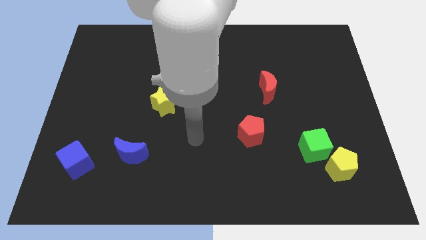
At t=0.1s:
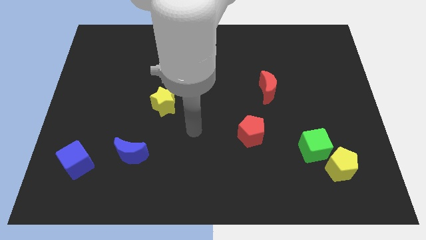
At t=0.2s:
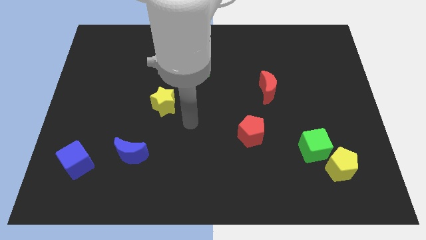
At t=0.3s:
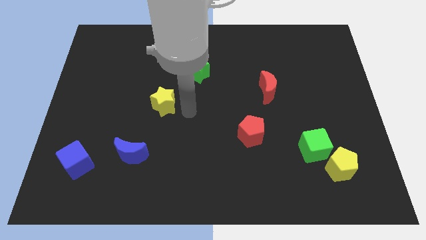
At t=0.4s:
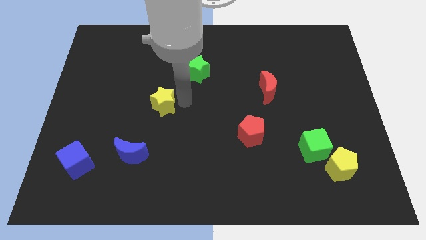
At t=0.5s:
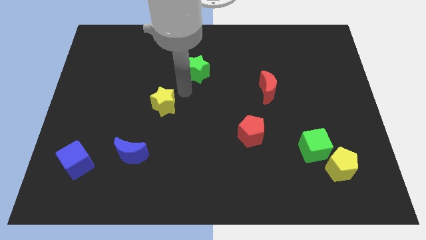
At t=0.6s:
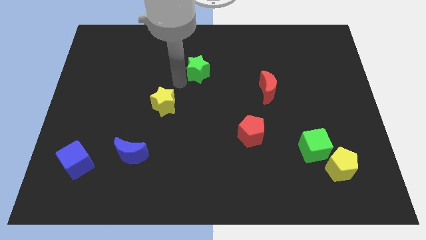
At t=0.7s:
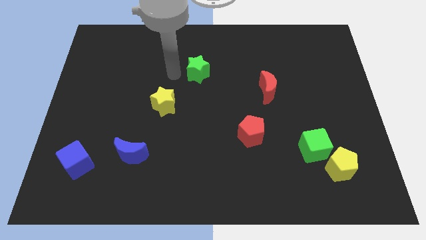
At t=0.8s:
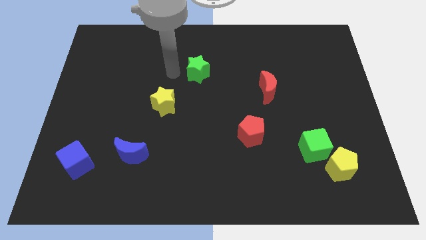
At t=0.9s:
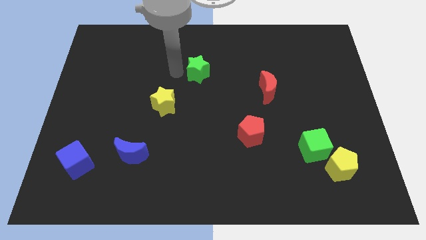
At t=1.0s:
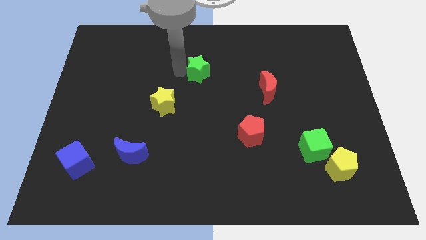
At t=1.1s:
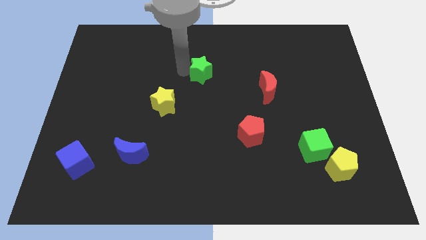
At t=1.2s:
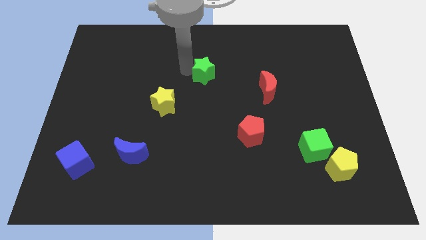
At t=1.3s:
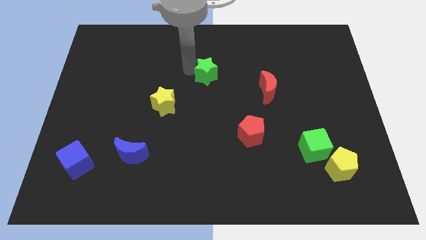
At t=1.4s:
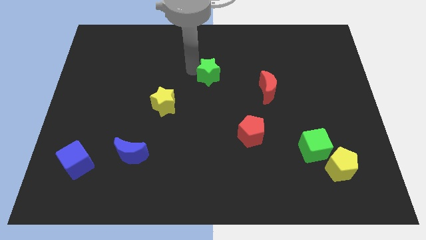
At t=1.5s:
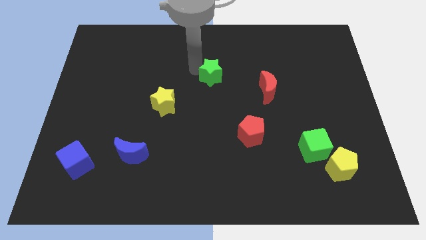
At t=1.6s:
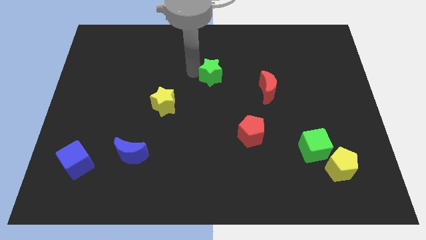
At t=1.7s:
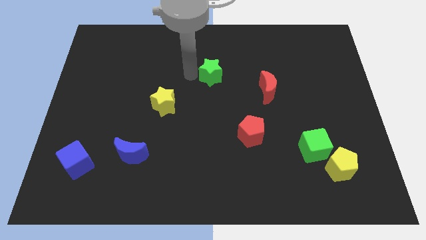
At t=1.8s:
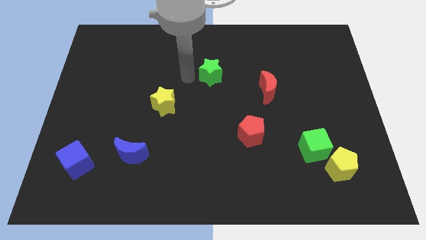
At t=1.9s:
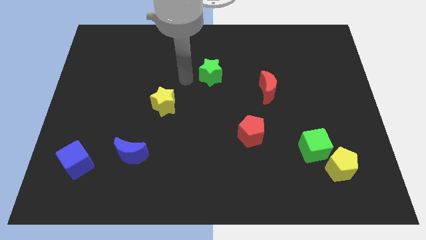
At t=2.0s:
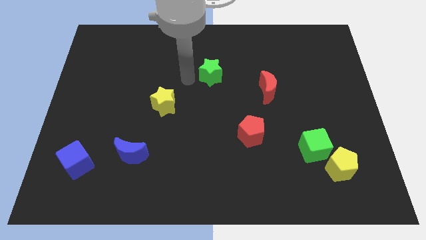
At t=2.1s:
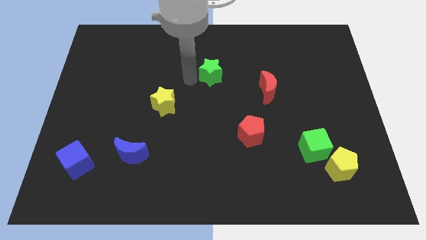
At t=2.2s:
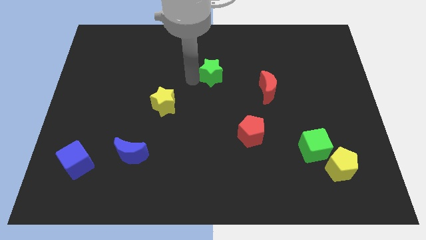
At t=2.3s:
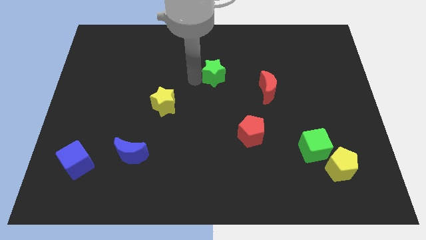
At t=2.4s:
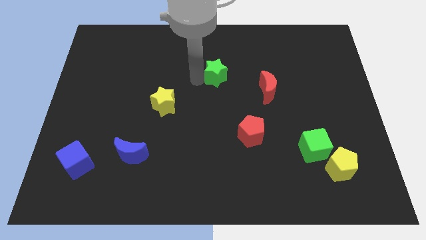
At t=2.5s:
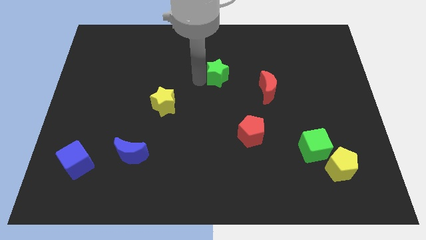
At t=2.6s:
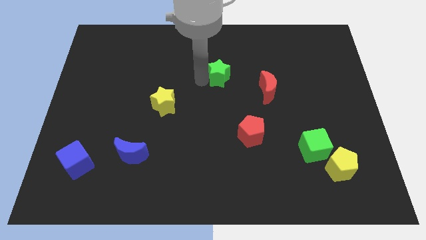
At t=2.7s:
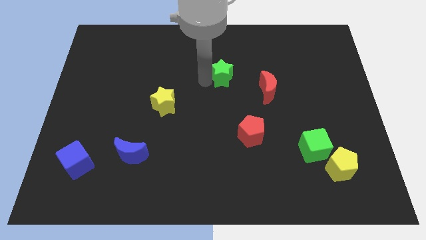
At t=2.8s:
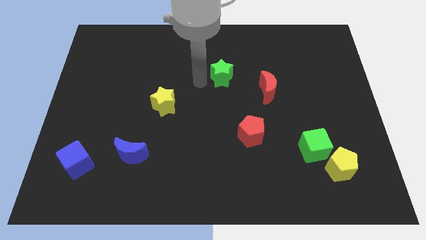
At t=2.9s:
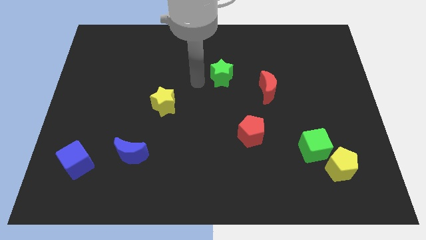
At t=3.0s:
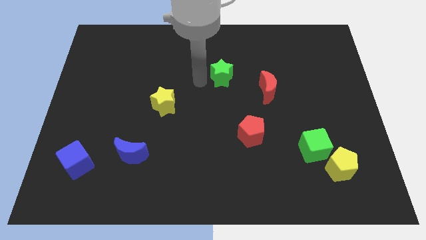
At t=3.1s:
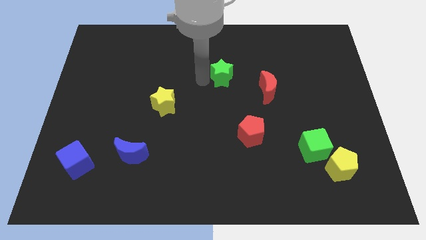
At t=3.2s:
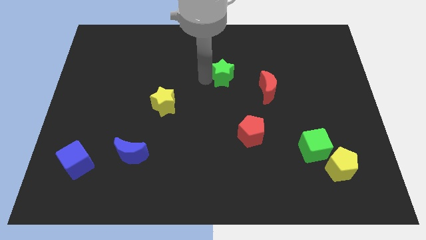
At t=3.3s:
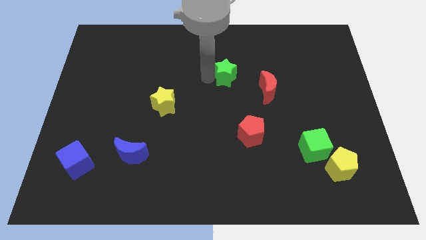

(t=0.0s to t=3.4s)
slightly slide the green star right

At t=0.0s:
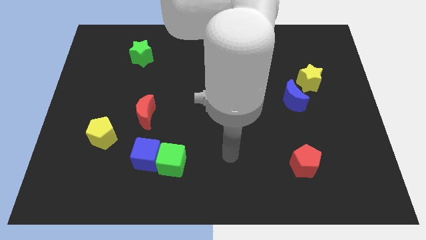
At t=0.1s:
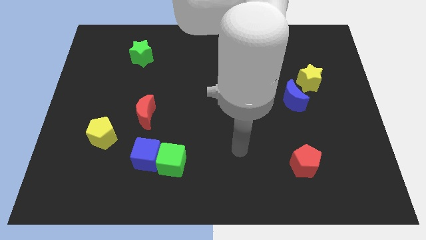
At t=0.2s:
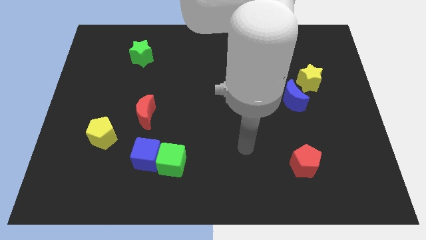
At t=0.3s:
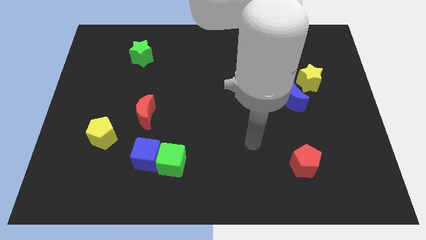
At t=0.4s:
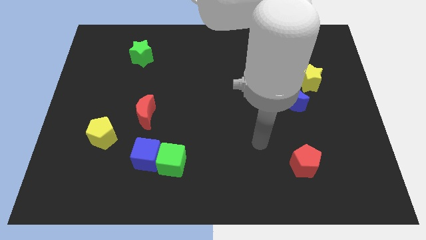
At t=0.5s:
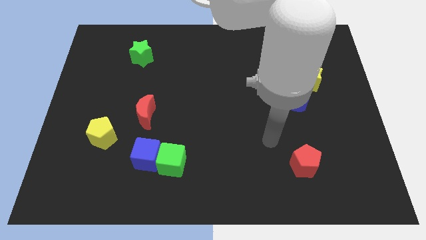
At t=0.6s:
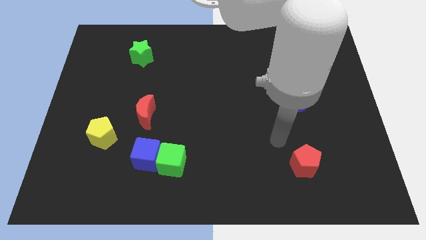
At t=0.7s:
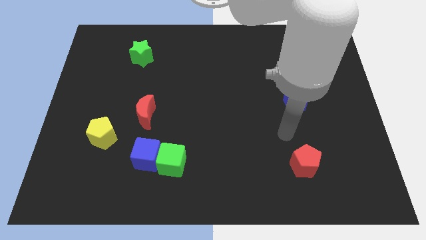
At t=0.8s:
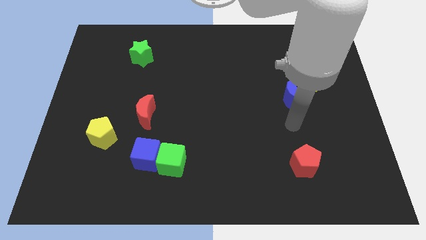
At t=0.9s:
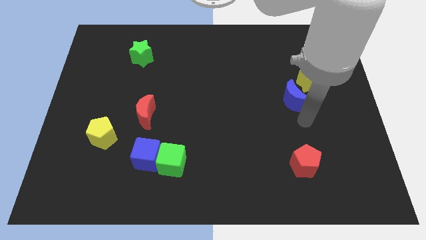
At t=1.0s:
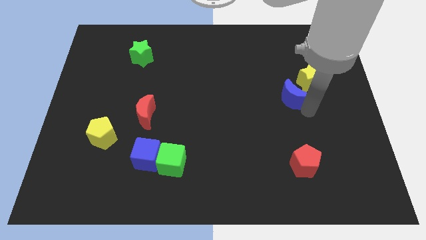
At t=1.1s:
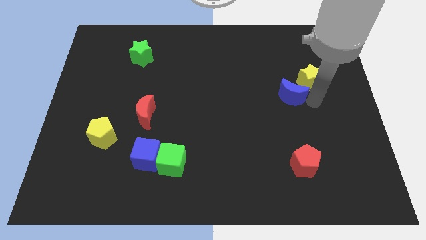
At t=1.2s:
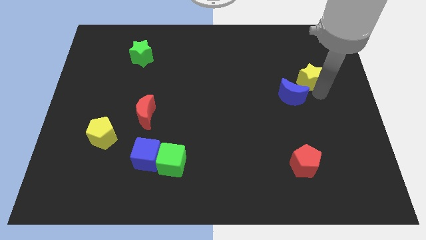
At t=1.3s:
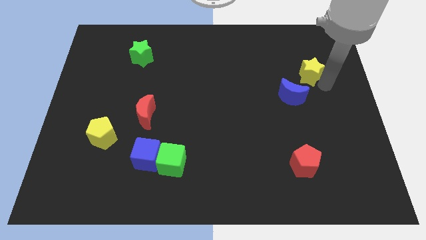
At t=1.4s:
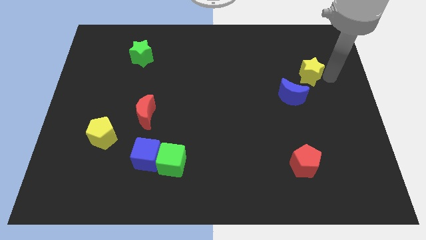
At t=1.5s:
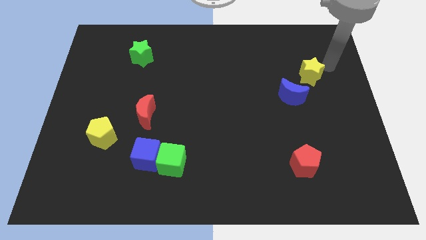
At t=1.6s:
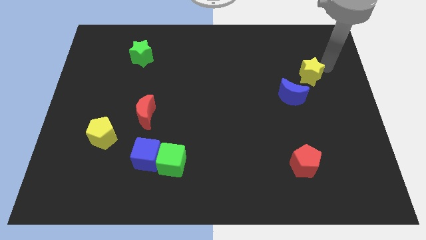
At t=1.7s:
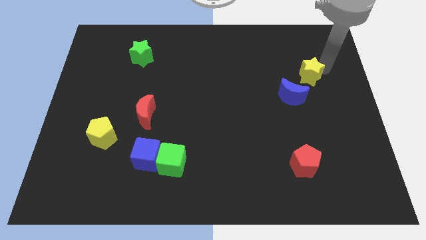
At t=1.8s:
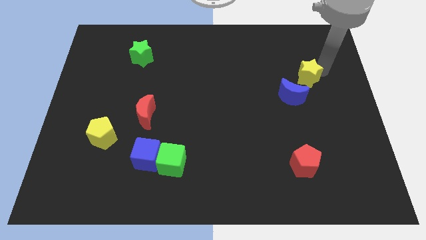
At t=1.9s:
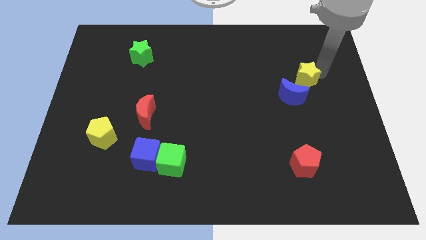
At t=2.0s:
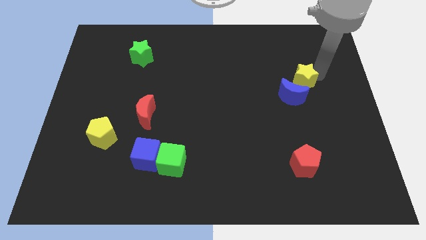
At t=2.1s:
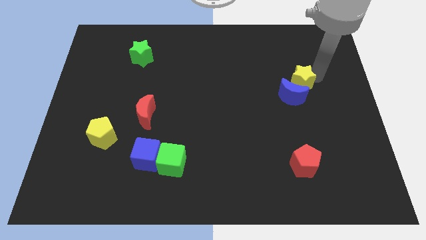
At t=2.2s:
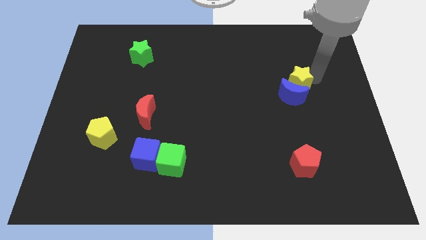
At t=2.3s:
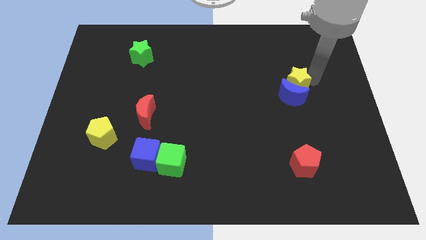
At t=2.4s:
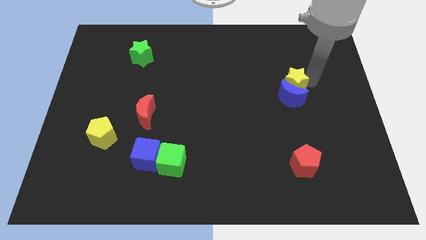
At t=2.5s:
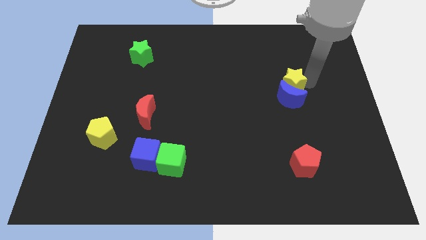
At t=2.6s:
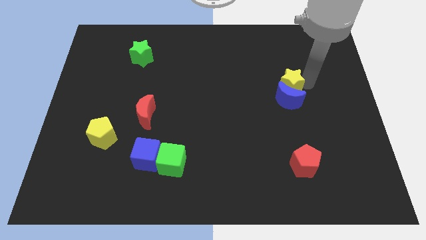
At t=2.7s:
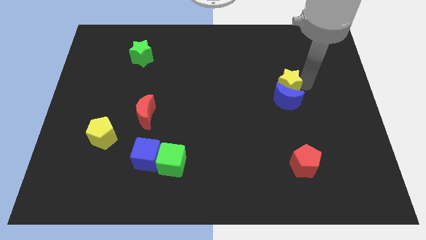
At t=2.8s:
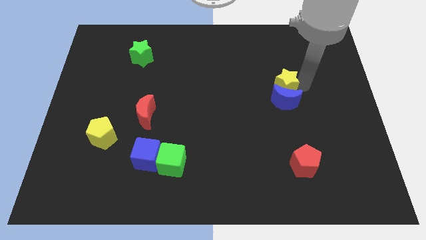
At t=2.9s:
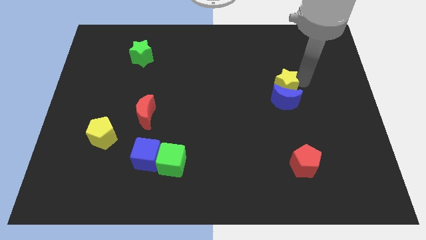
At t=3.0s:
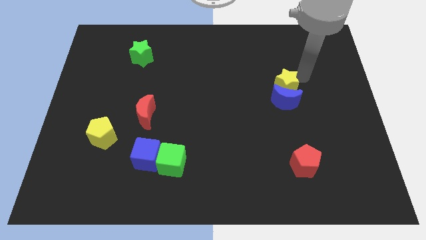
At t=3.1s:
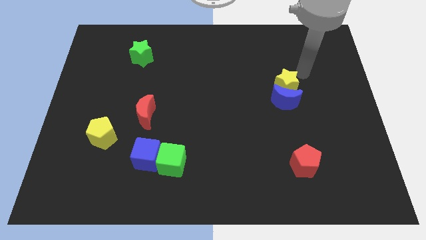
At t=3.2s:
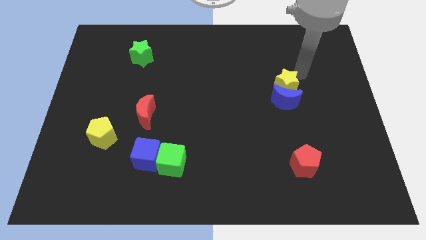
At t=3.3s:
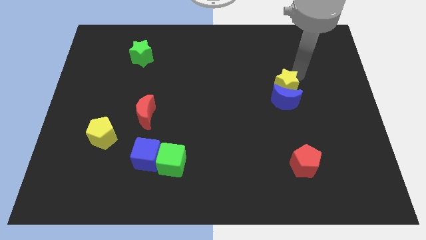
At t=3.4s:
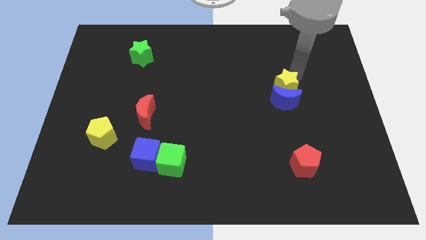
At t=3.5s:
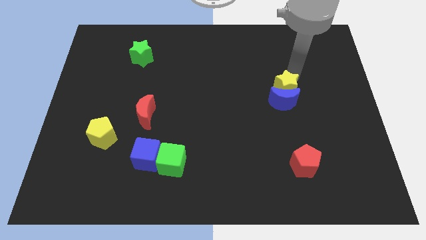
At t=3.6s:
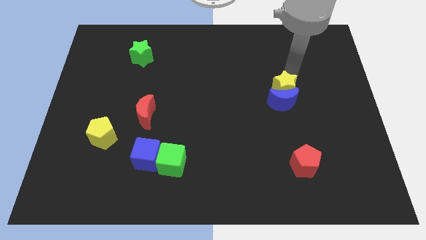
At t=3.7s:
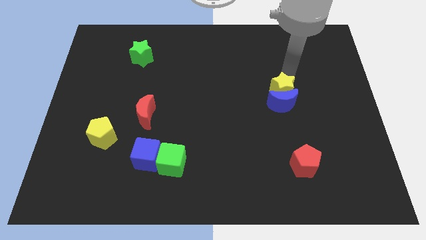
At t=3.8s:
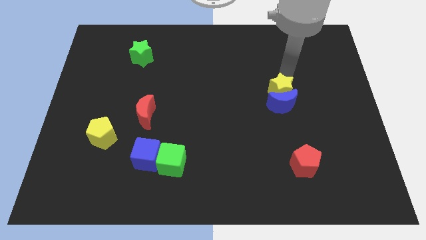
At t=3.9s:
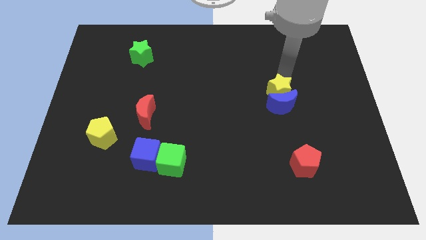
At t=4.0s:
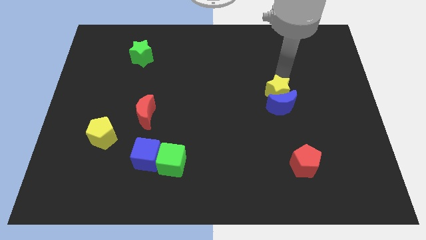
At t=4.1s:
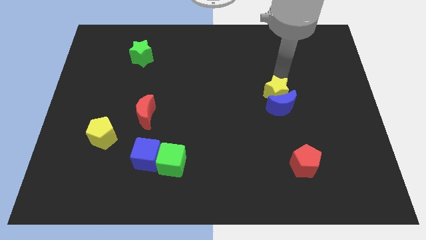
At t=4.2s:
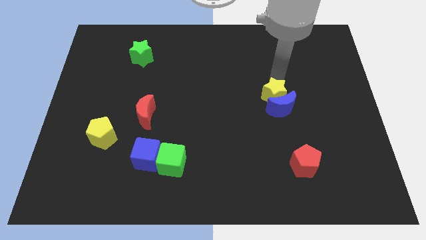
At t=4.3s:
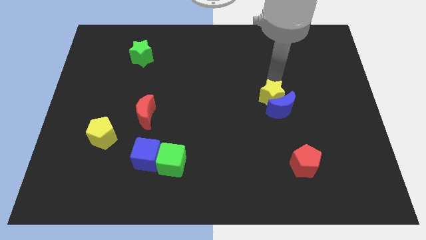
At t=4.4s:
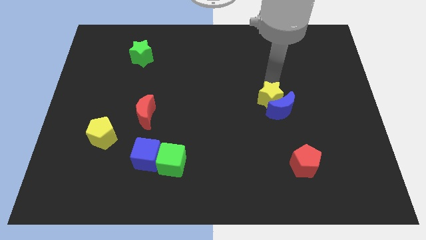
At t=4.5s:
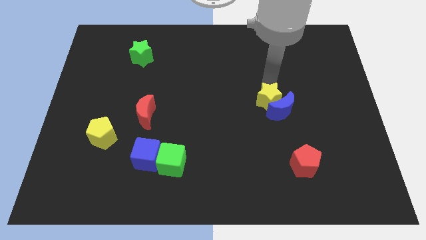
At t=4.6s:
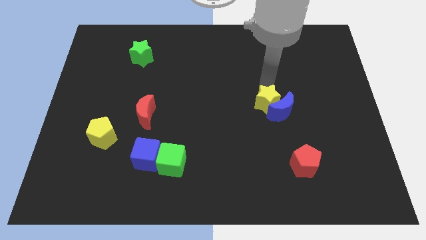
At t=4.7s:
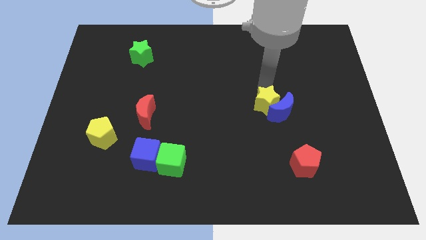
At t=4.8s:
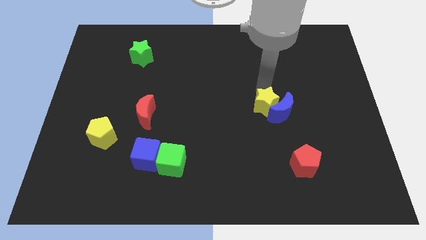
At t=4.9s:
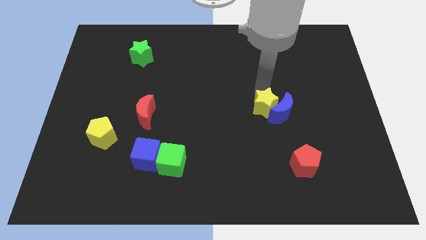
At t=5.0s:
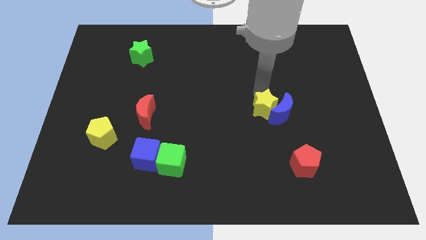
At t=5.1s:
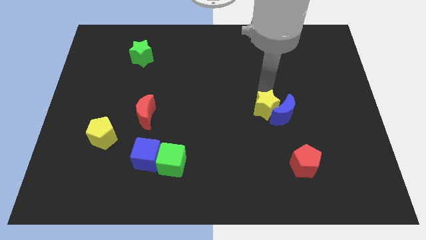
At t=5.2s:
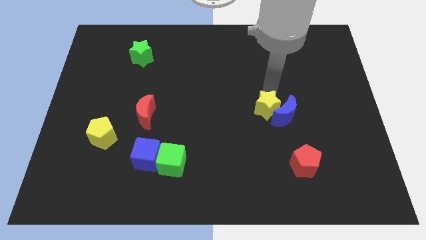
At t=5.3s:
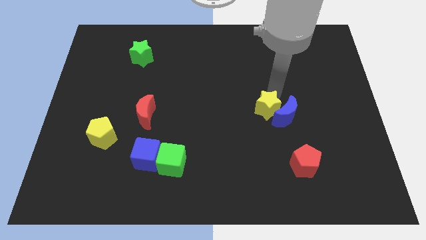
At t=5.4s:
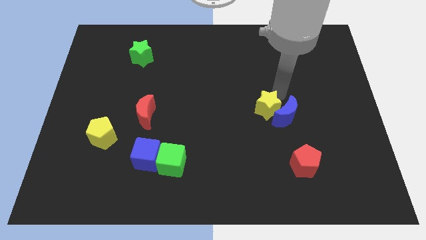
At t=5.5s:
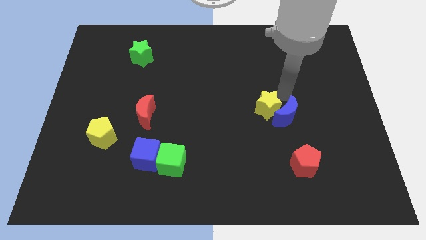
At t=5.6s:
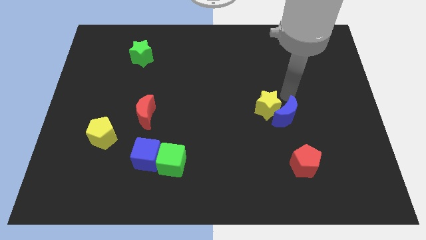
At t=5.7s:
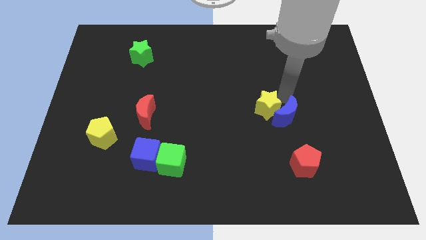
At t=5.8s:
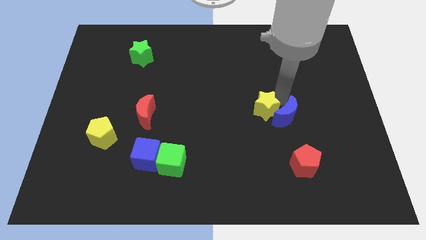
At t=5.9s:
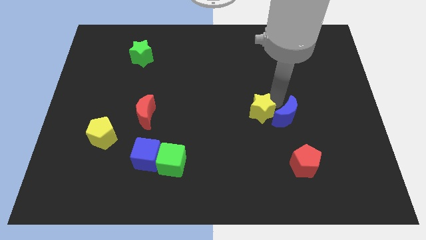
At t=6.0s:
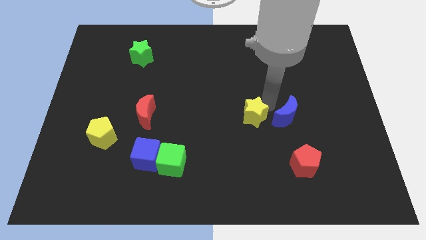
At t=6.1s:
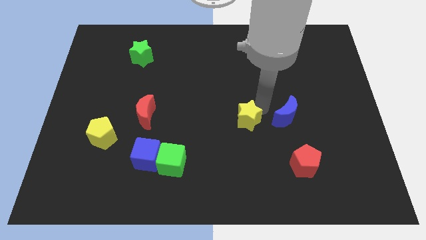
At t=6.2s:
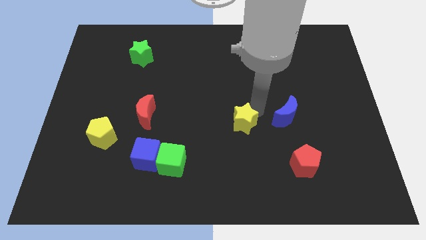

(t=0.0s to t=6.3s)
move the yellow star down and to the left diagonally
